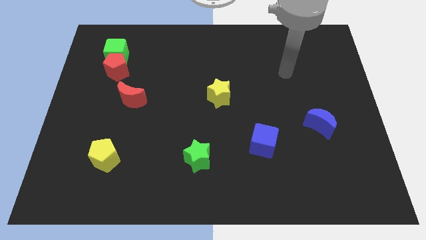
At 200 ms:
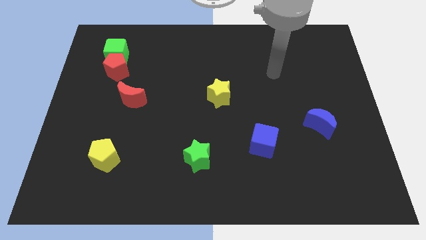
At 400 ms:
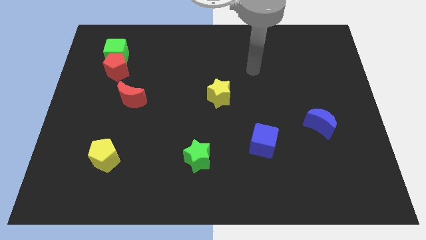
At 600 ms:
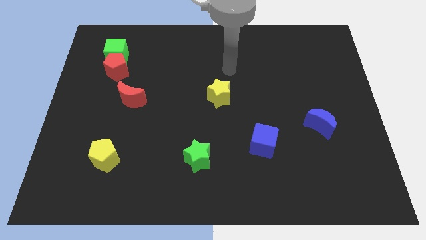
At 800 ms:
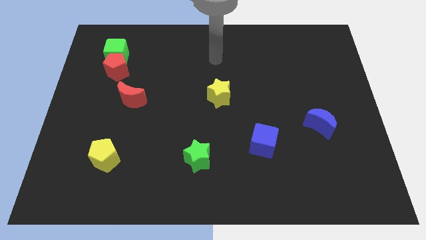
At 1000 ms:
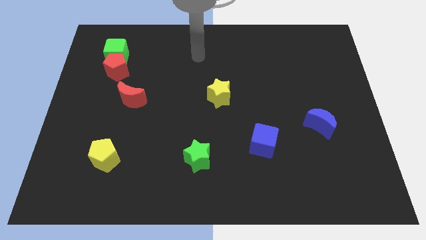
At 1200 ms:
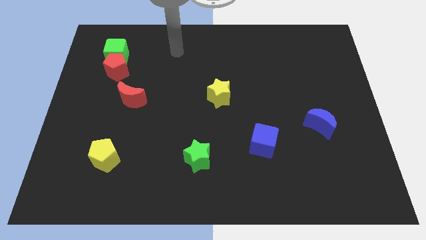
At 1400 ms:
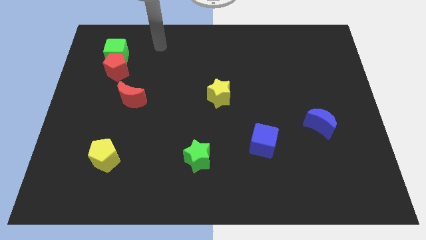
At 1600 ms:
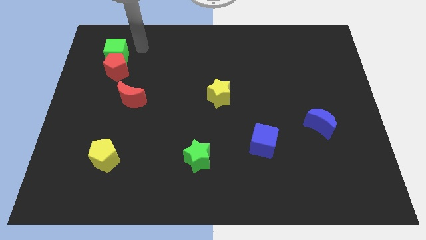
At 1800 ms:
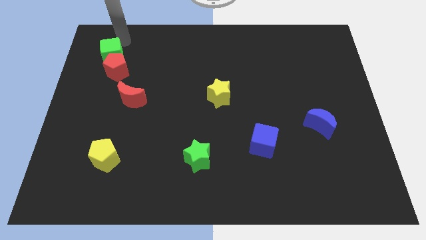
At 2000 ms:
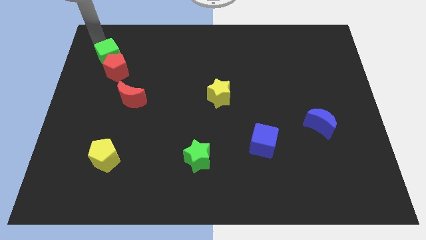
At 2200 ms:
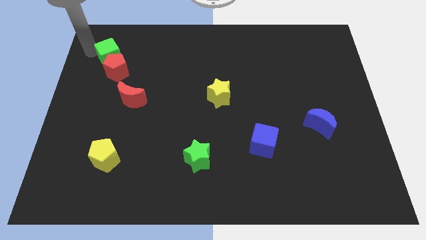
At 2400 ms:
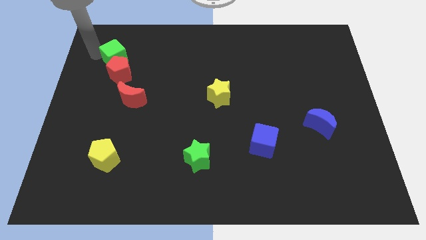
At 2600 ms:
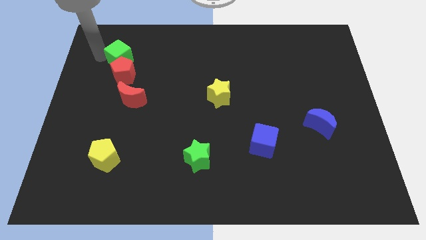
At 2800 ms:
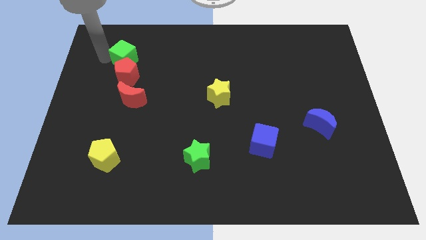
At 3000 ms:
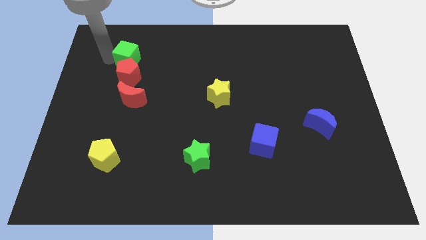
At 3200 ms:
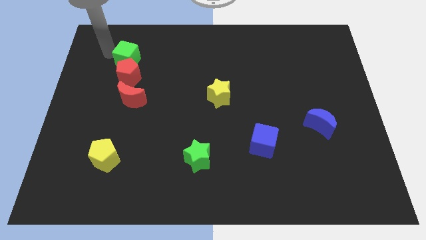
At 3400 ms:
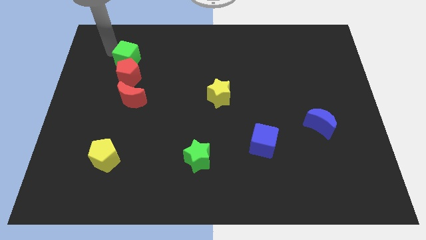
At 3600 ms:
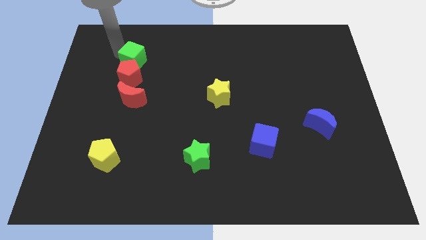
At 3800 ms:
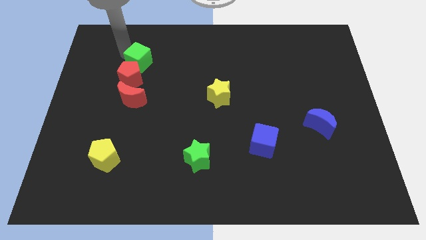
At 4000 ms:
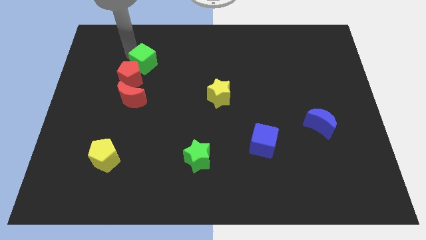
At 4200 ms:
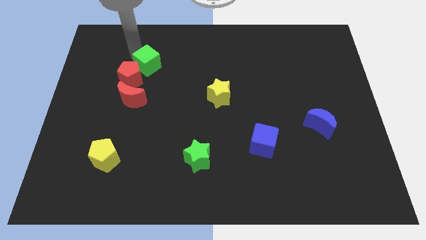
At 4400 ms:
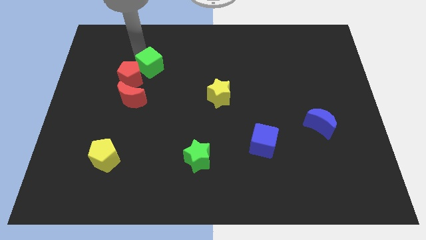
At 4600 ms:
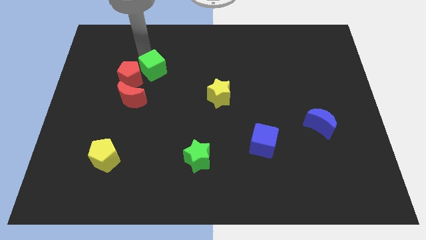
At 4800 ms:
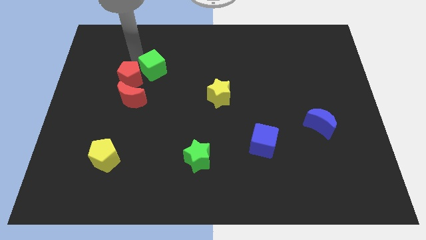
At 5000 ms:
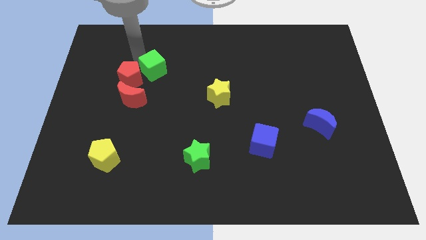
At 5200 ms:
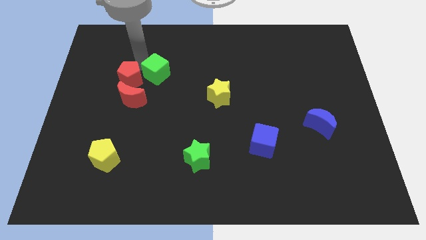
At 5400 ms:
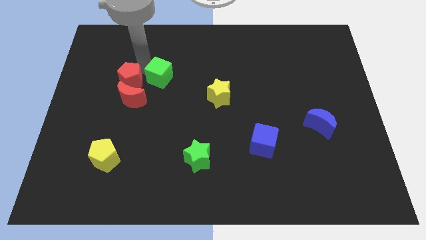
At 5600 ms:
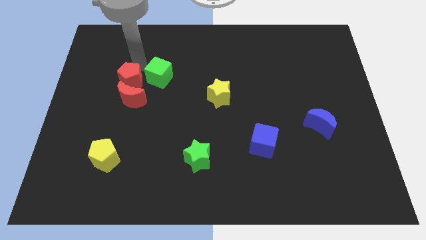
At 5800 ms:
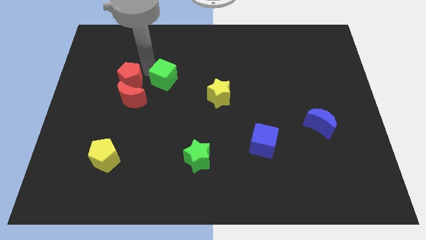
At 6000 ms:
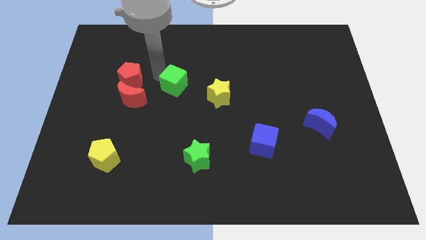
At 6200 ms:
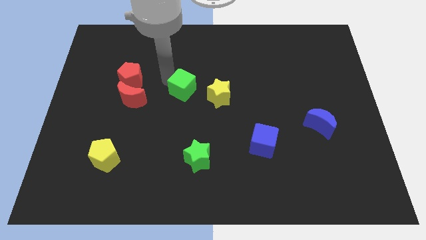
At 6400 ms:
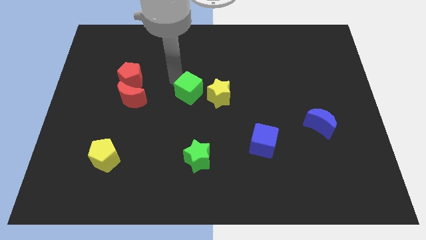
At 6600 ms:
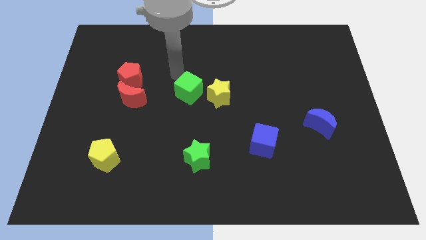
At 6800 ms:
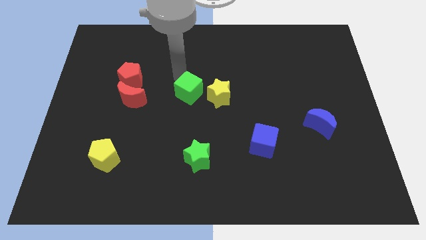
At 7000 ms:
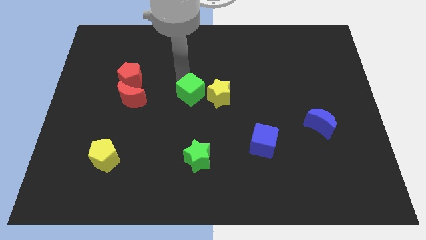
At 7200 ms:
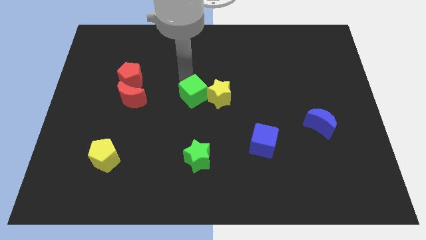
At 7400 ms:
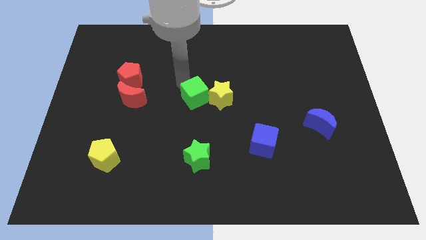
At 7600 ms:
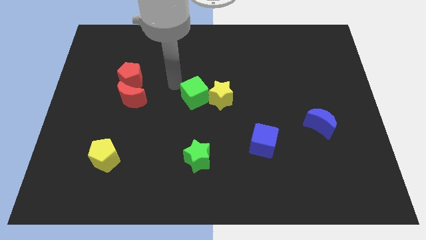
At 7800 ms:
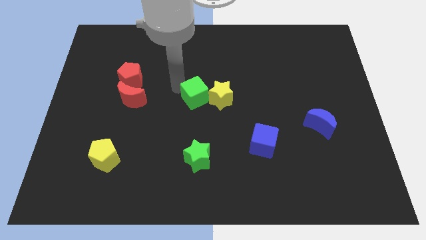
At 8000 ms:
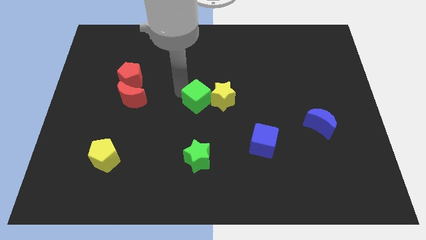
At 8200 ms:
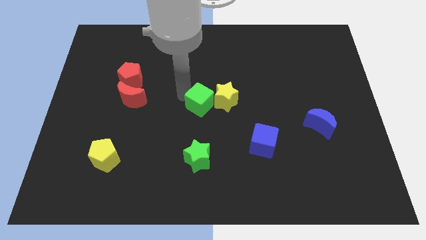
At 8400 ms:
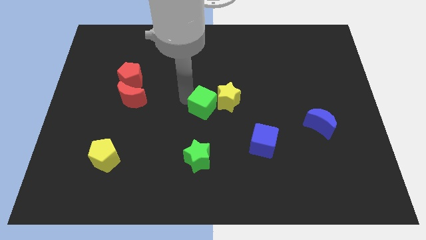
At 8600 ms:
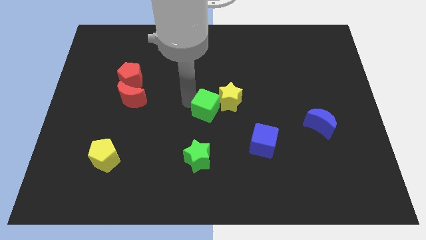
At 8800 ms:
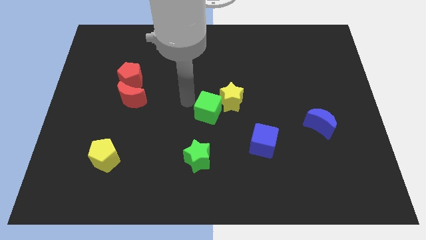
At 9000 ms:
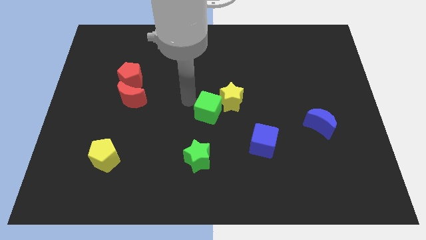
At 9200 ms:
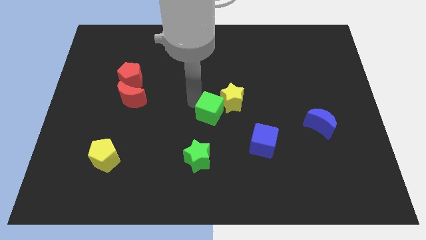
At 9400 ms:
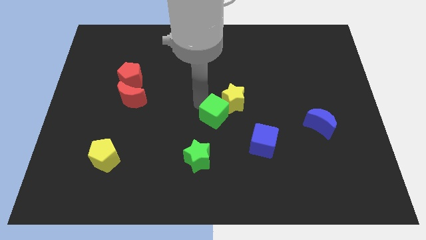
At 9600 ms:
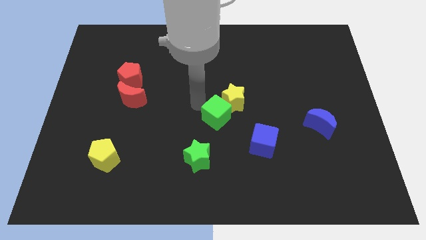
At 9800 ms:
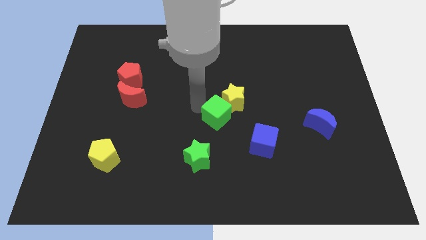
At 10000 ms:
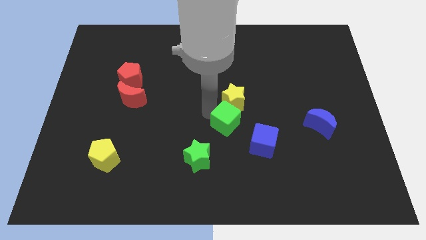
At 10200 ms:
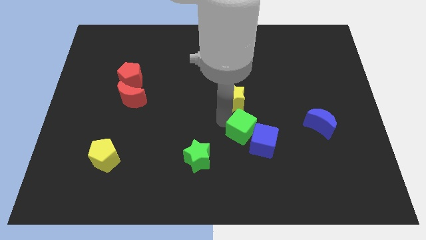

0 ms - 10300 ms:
put the green cube to the blue cube

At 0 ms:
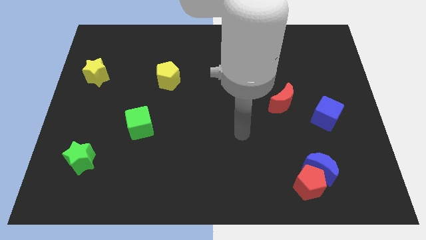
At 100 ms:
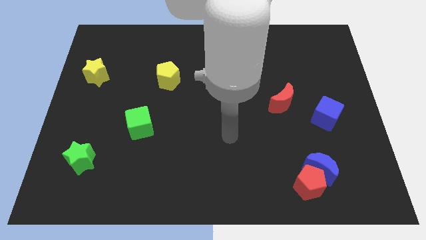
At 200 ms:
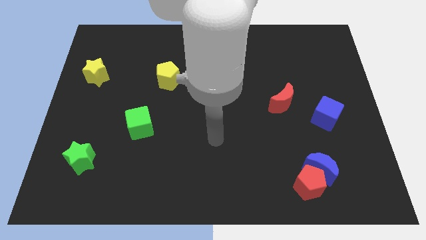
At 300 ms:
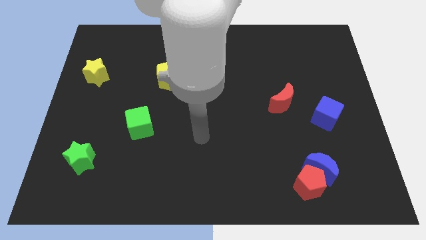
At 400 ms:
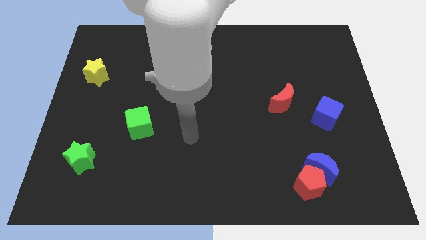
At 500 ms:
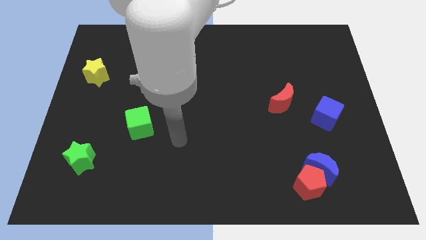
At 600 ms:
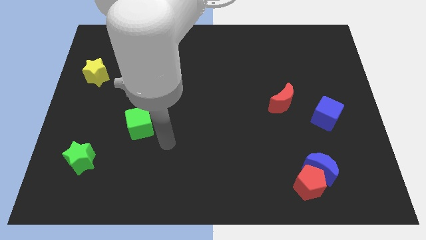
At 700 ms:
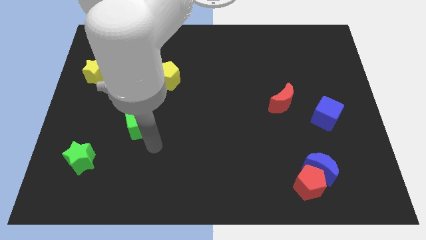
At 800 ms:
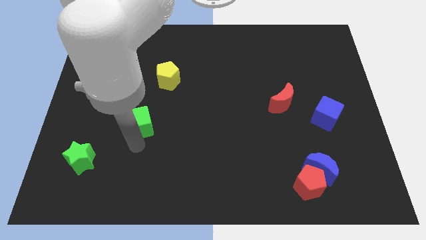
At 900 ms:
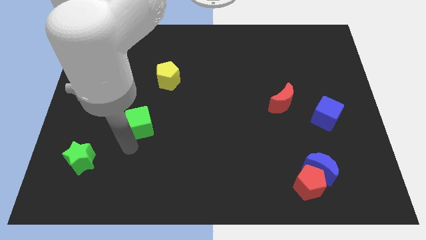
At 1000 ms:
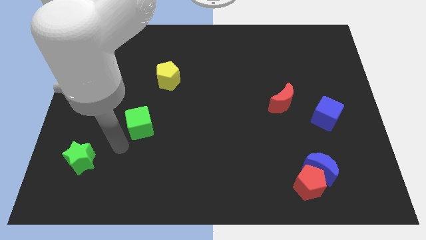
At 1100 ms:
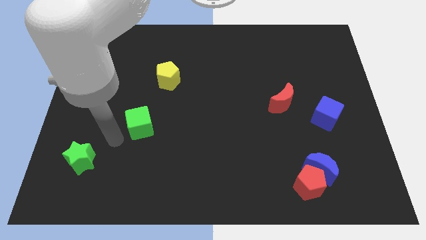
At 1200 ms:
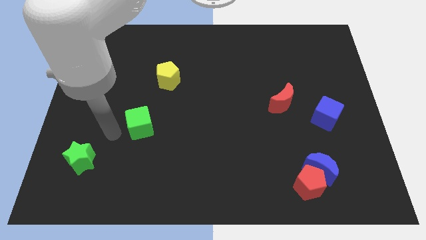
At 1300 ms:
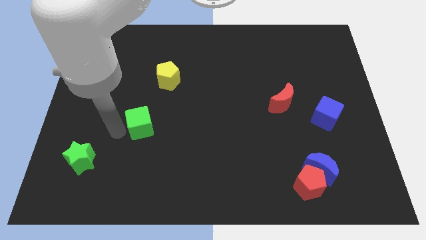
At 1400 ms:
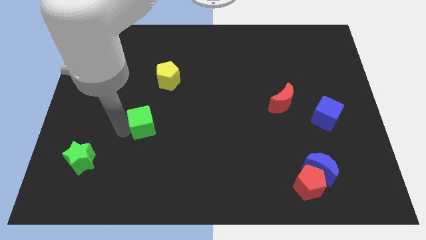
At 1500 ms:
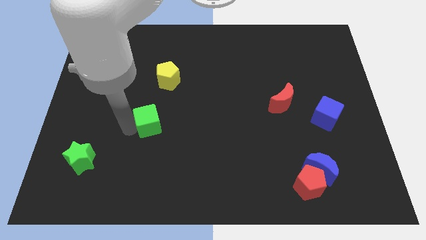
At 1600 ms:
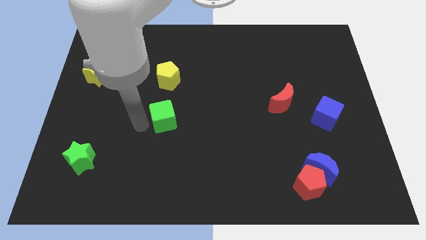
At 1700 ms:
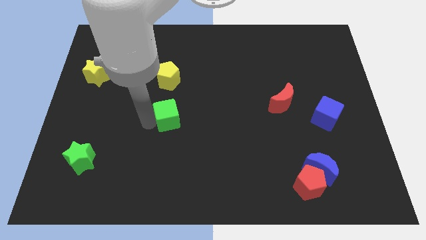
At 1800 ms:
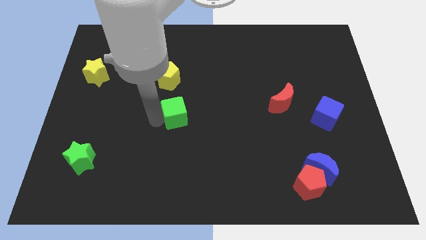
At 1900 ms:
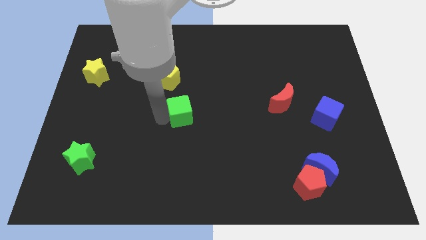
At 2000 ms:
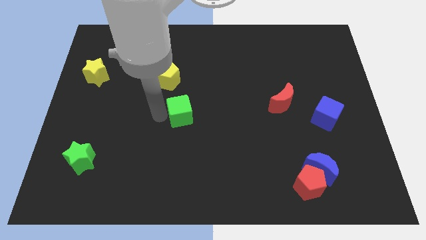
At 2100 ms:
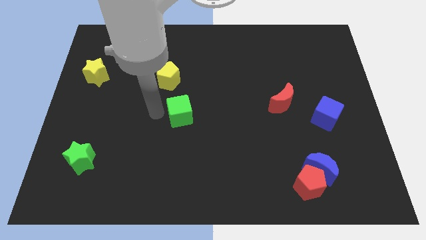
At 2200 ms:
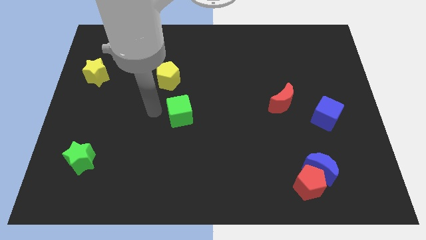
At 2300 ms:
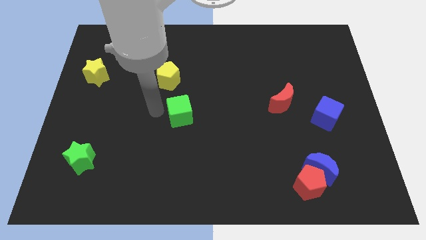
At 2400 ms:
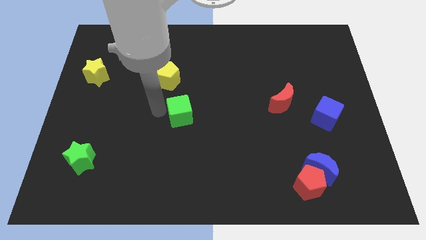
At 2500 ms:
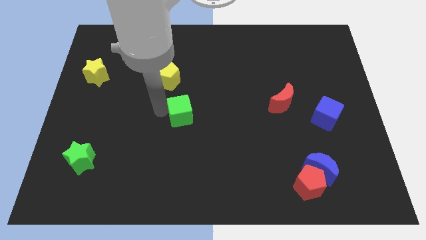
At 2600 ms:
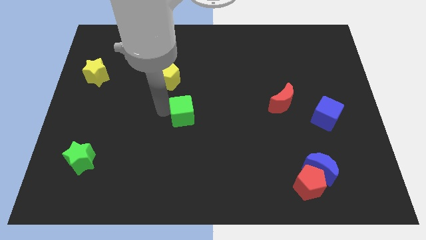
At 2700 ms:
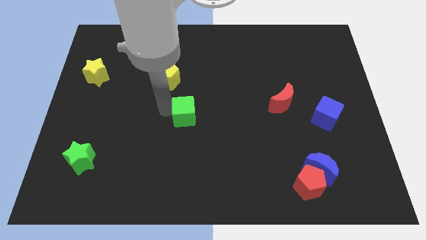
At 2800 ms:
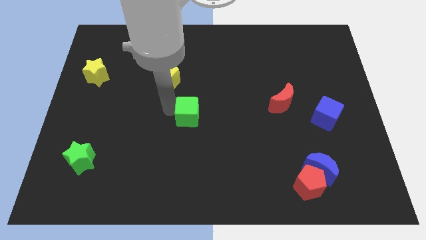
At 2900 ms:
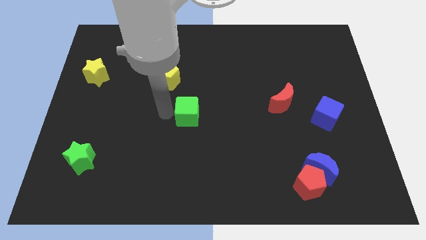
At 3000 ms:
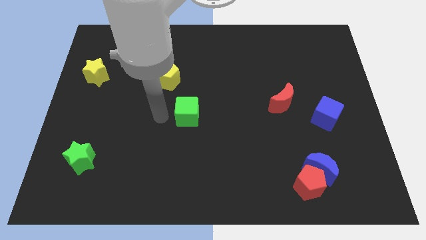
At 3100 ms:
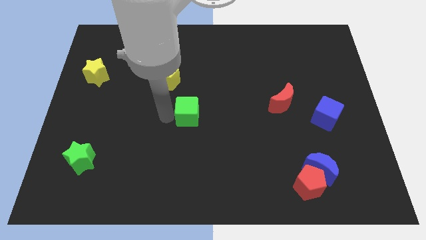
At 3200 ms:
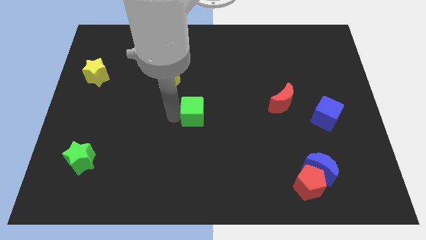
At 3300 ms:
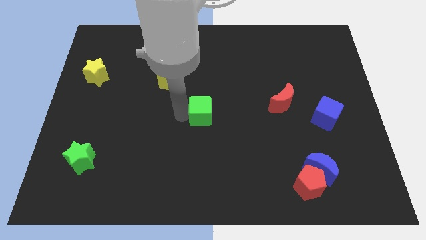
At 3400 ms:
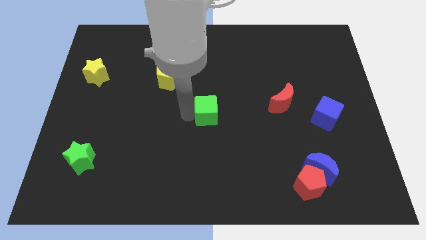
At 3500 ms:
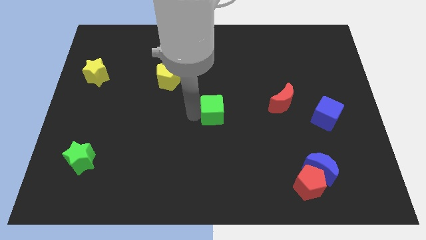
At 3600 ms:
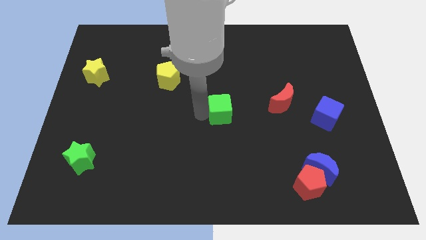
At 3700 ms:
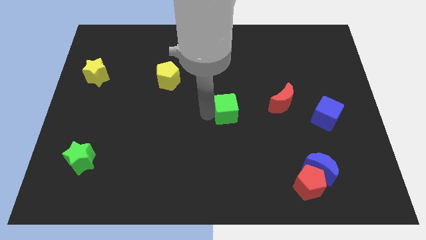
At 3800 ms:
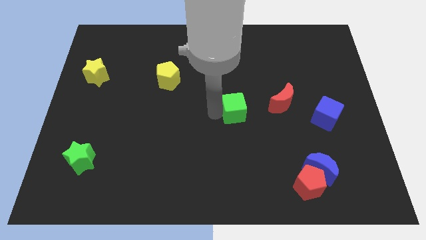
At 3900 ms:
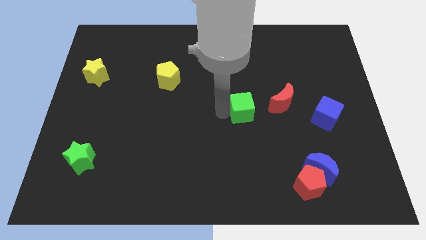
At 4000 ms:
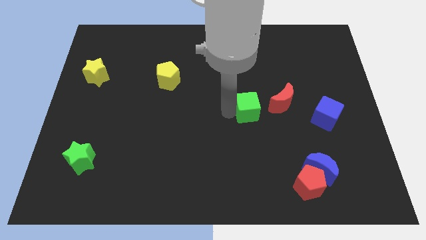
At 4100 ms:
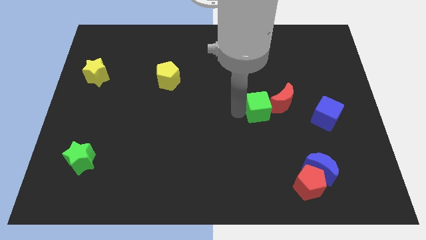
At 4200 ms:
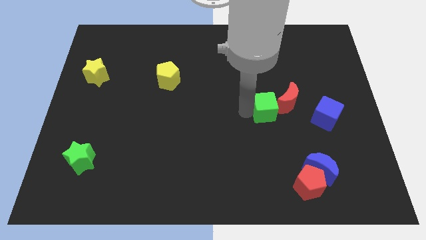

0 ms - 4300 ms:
push the green cube close to the red moon
